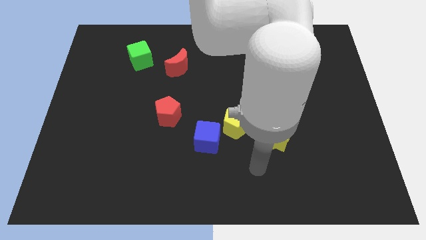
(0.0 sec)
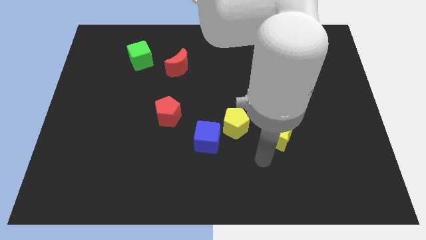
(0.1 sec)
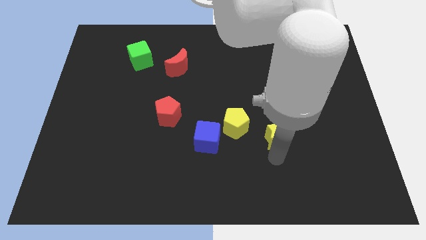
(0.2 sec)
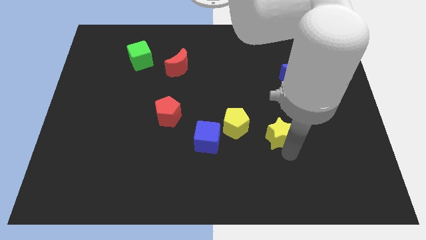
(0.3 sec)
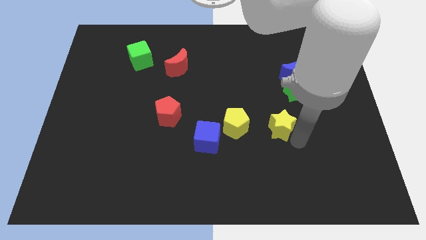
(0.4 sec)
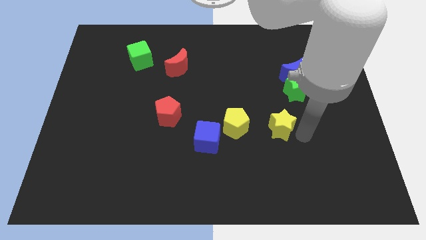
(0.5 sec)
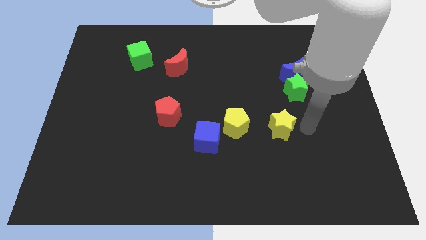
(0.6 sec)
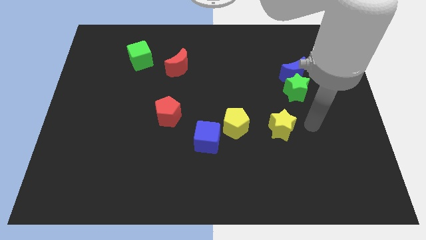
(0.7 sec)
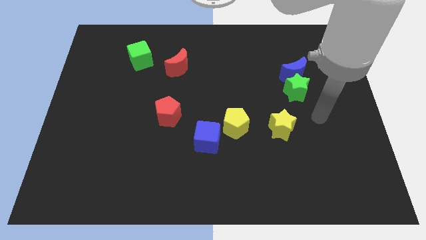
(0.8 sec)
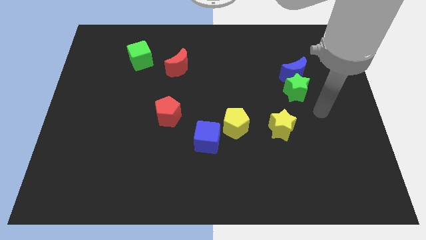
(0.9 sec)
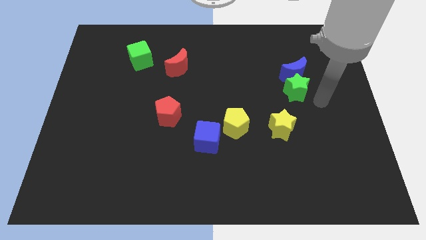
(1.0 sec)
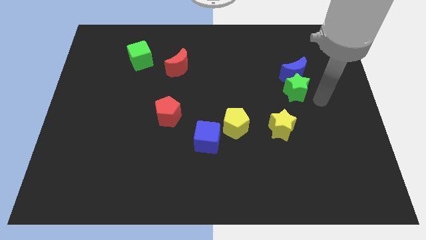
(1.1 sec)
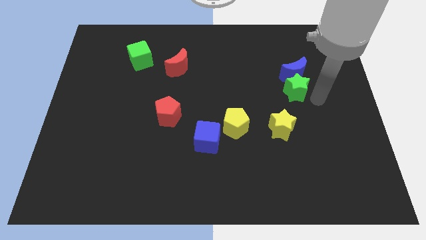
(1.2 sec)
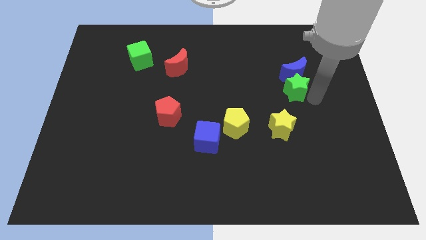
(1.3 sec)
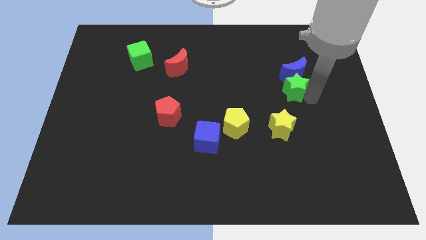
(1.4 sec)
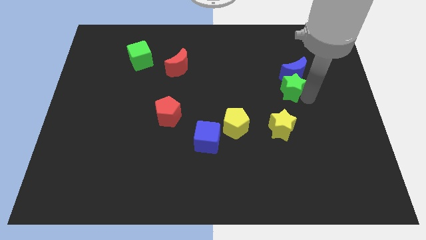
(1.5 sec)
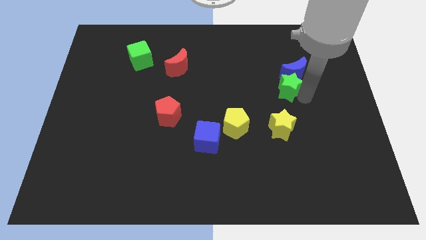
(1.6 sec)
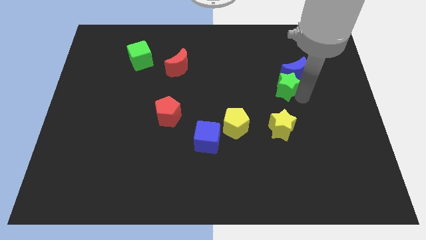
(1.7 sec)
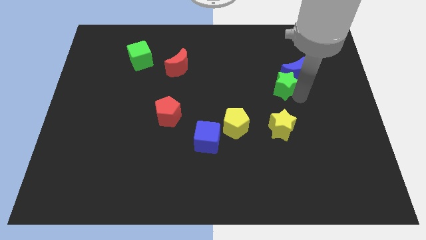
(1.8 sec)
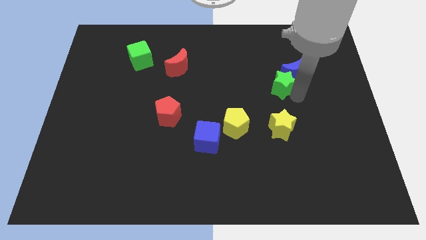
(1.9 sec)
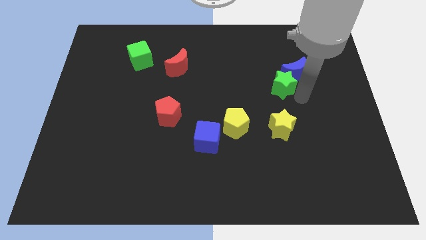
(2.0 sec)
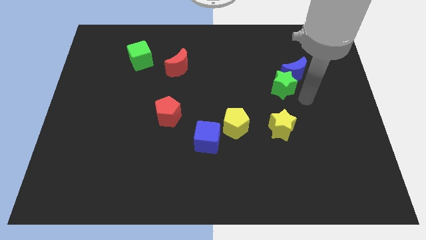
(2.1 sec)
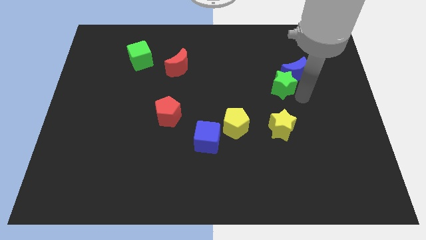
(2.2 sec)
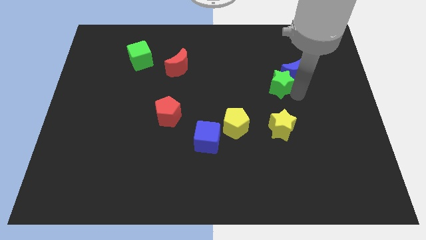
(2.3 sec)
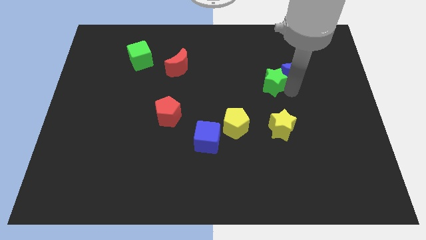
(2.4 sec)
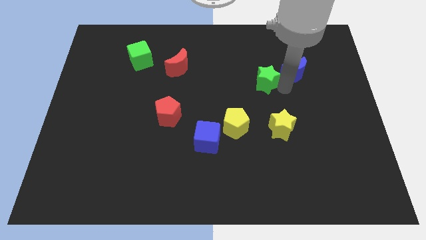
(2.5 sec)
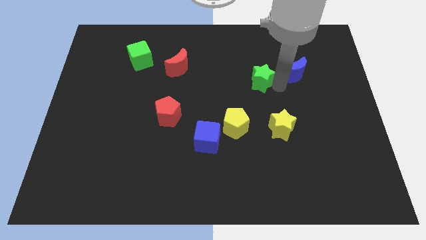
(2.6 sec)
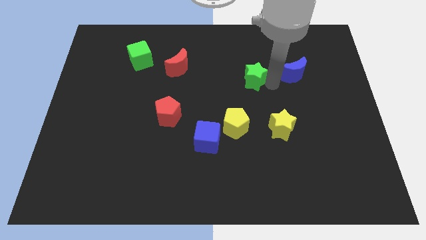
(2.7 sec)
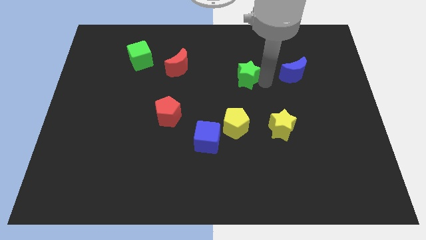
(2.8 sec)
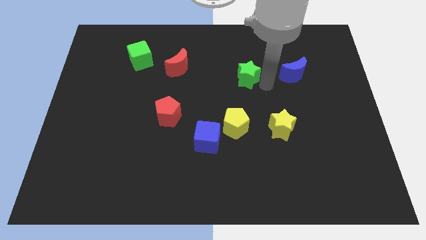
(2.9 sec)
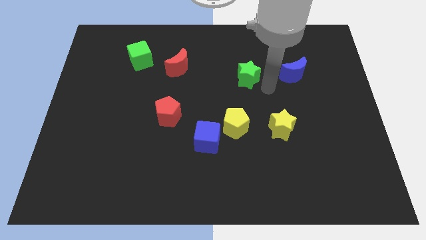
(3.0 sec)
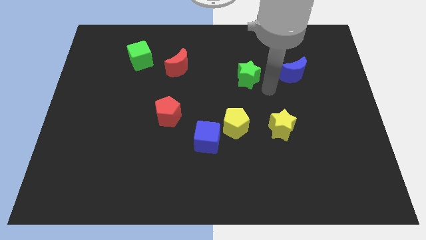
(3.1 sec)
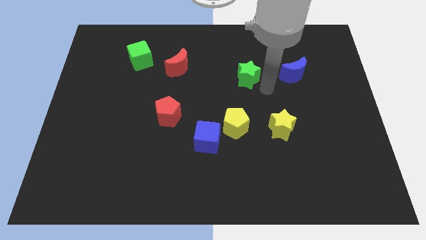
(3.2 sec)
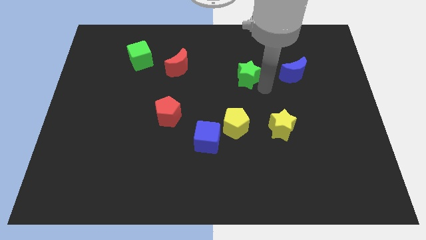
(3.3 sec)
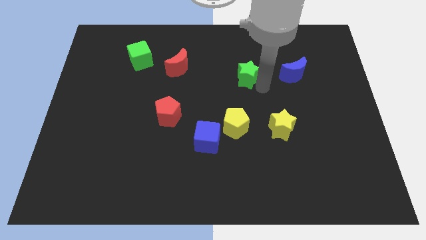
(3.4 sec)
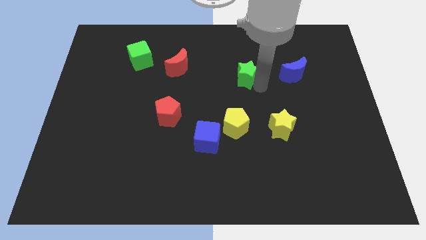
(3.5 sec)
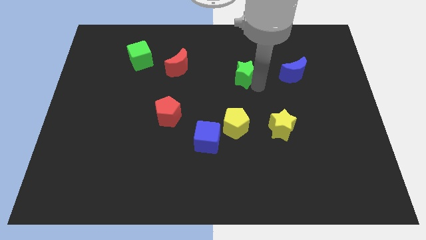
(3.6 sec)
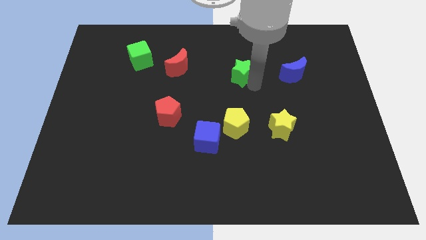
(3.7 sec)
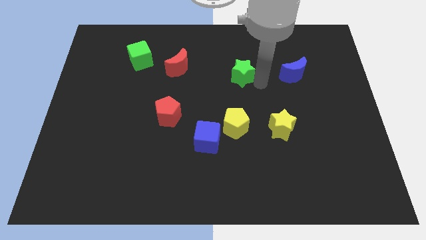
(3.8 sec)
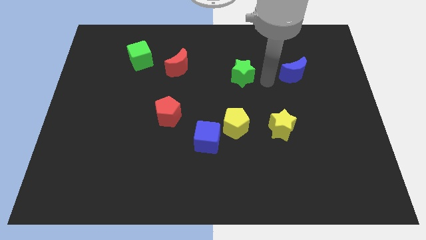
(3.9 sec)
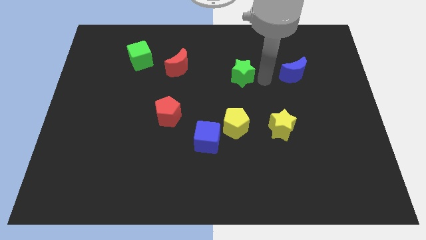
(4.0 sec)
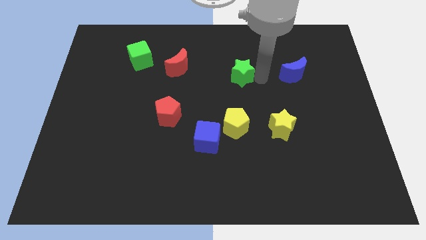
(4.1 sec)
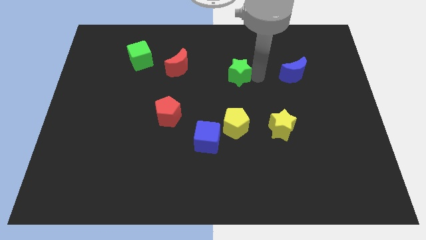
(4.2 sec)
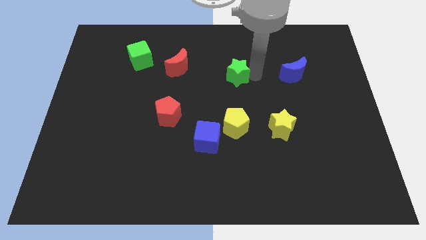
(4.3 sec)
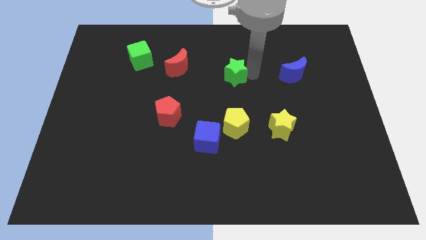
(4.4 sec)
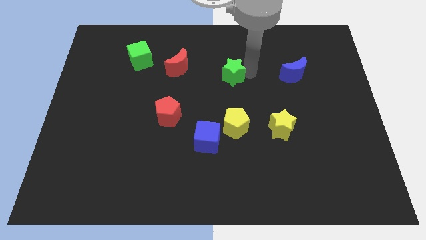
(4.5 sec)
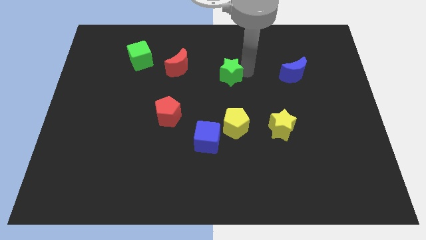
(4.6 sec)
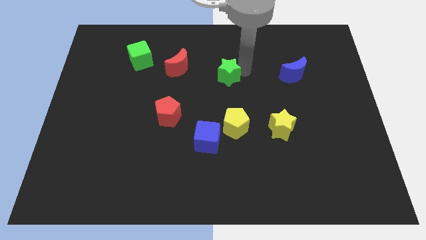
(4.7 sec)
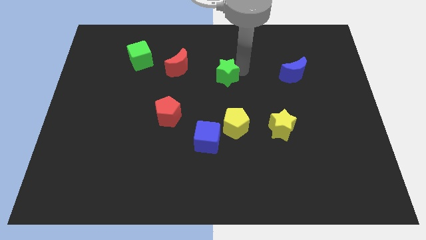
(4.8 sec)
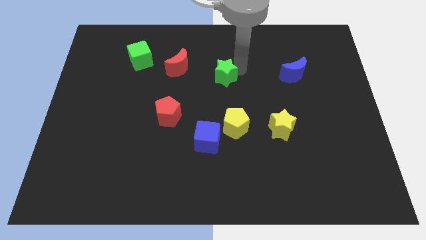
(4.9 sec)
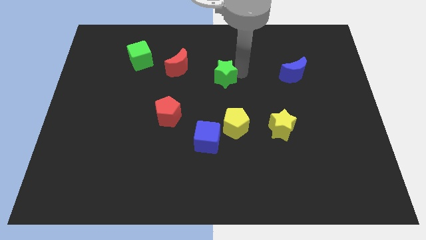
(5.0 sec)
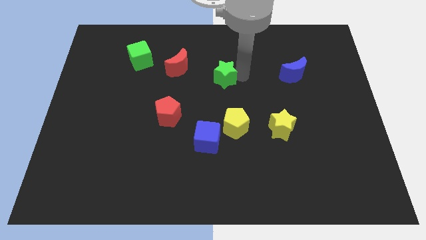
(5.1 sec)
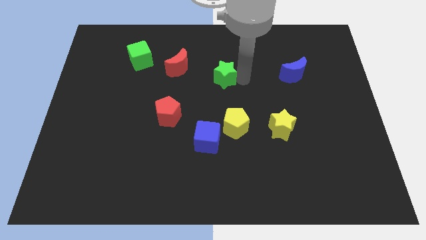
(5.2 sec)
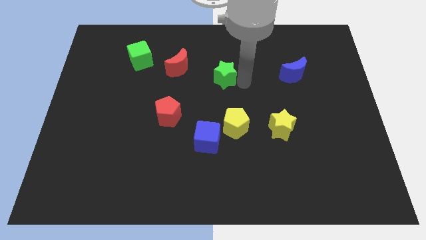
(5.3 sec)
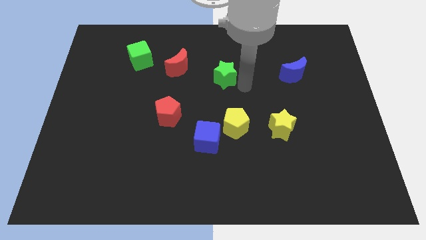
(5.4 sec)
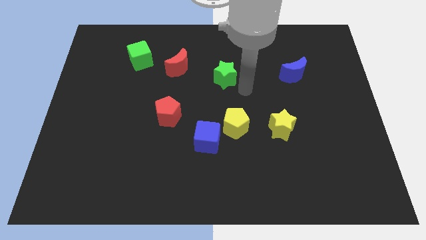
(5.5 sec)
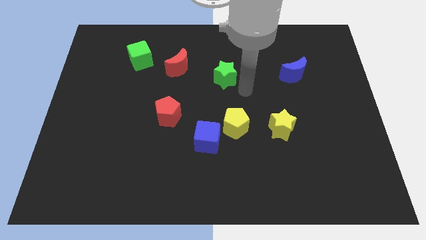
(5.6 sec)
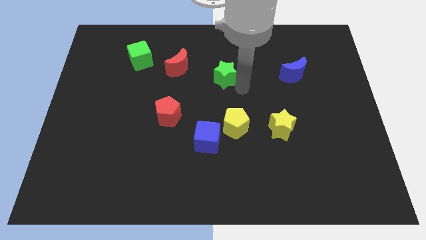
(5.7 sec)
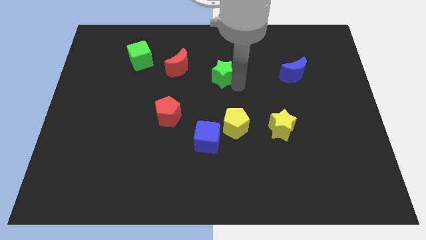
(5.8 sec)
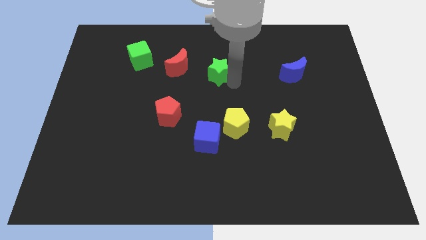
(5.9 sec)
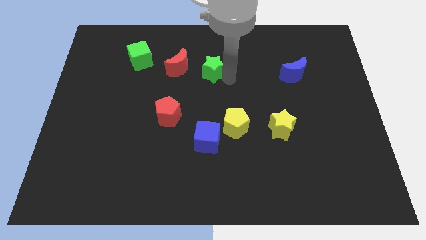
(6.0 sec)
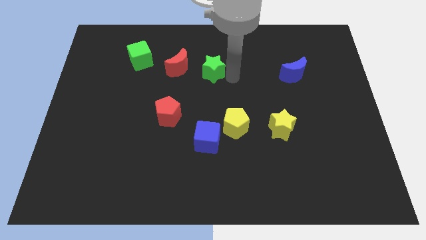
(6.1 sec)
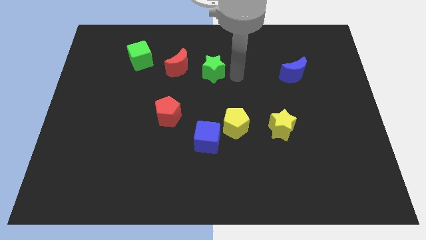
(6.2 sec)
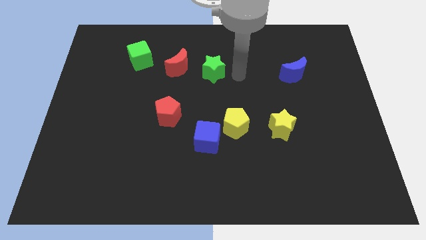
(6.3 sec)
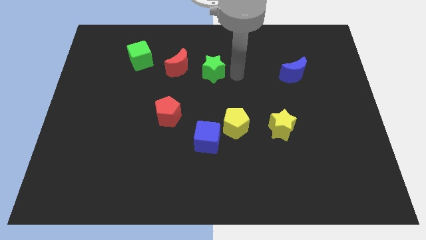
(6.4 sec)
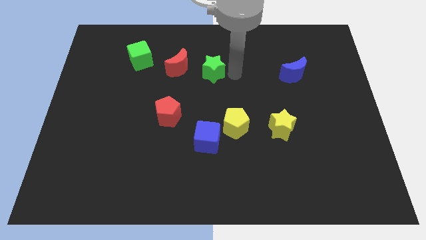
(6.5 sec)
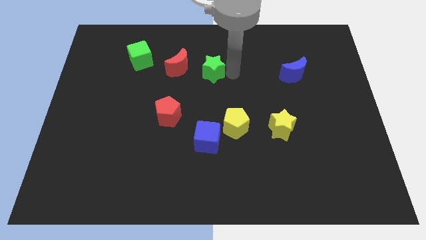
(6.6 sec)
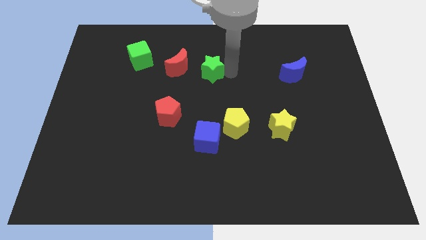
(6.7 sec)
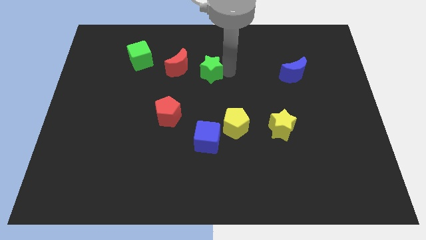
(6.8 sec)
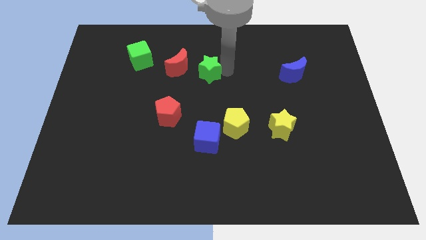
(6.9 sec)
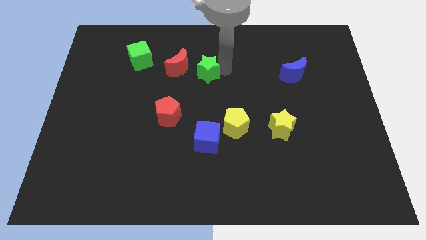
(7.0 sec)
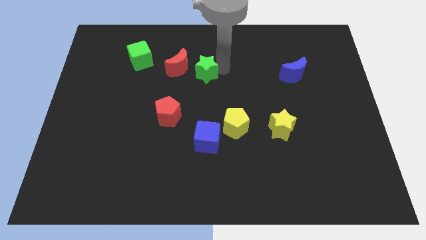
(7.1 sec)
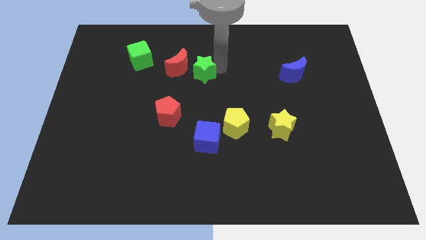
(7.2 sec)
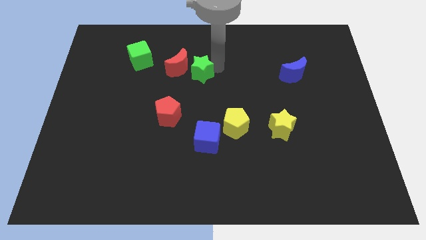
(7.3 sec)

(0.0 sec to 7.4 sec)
push the green star next to the red moon
